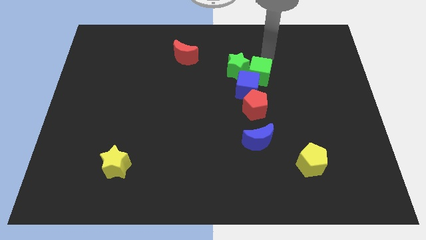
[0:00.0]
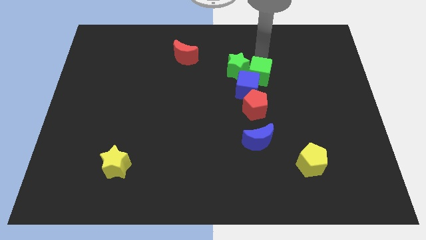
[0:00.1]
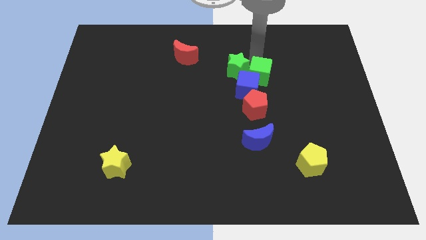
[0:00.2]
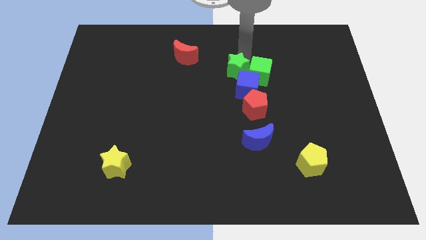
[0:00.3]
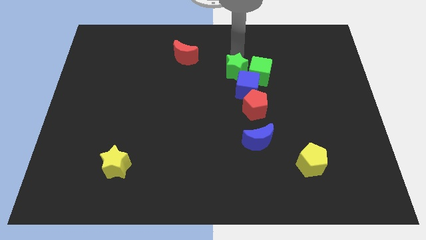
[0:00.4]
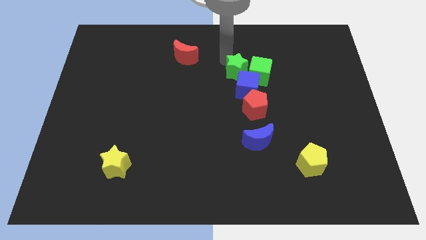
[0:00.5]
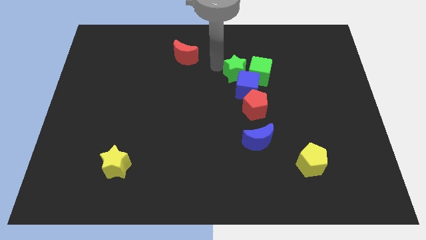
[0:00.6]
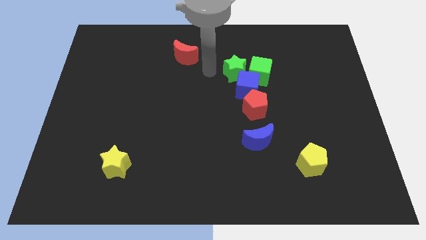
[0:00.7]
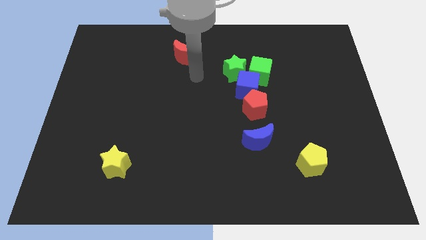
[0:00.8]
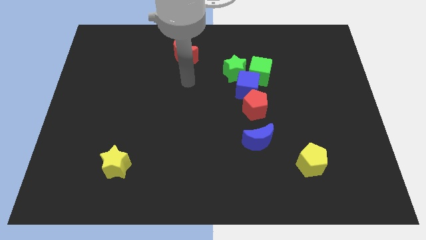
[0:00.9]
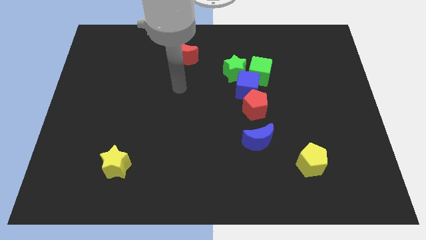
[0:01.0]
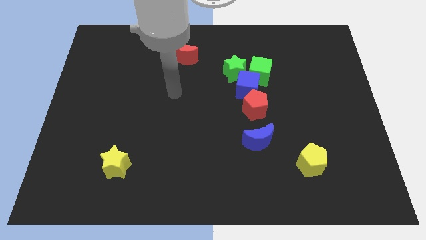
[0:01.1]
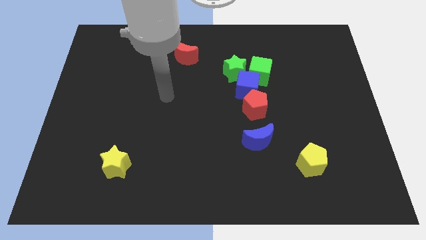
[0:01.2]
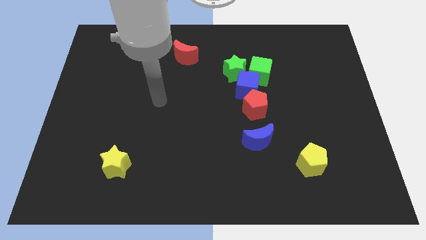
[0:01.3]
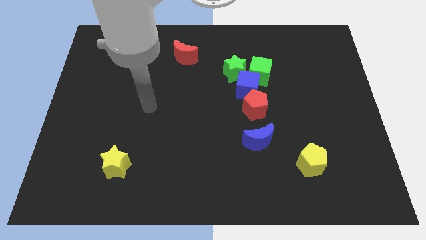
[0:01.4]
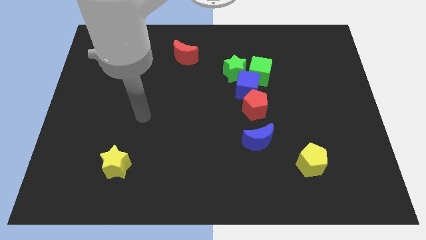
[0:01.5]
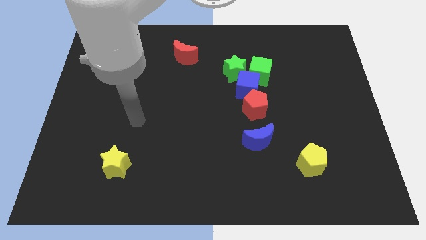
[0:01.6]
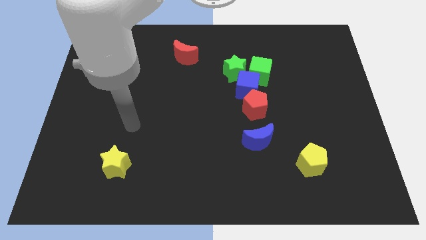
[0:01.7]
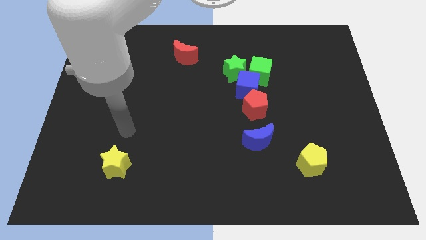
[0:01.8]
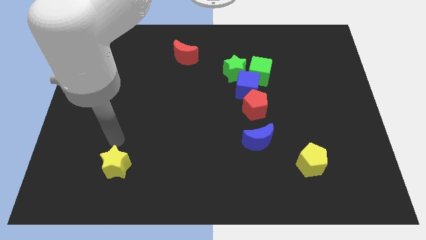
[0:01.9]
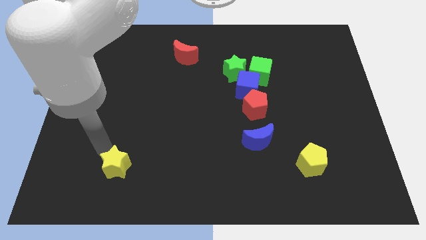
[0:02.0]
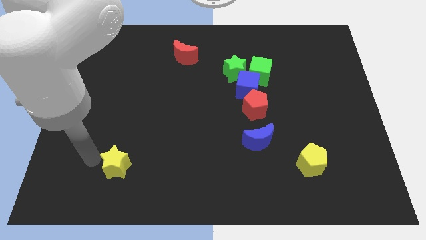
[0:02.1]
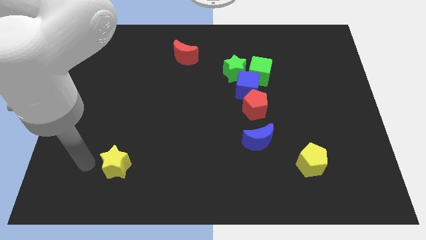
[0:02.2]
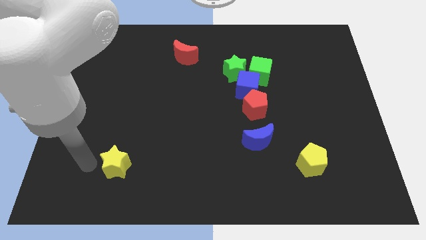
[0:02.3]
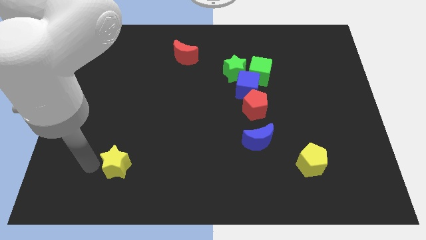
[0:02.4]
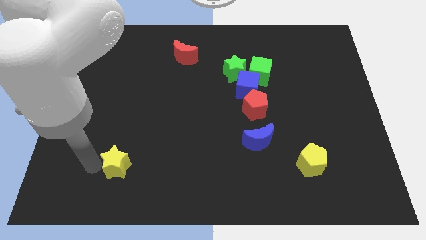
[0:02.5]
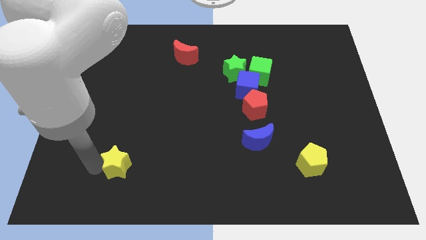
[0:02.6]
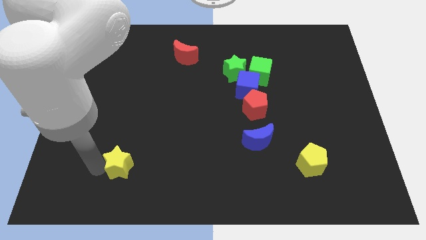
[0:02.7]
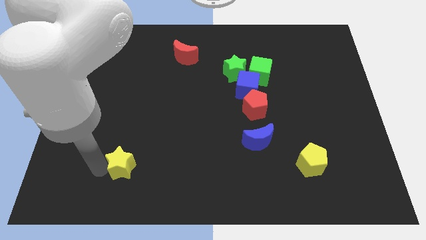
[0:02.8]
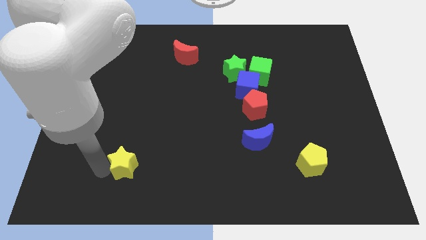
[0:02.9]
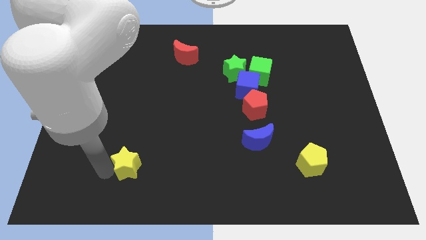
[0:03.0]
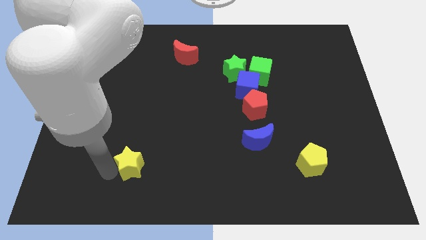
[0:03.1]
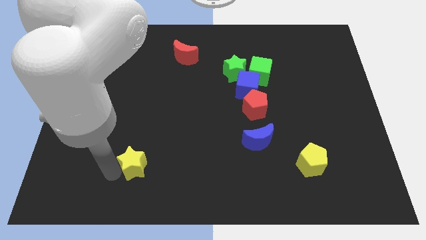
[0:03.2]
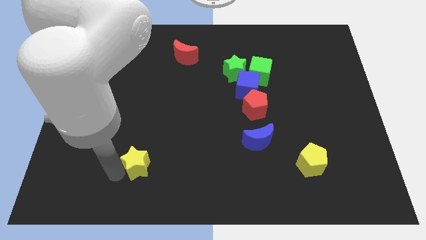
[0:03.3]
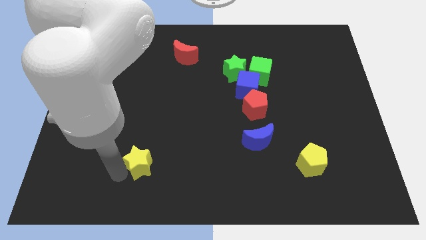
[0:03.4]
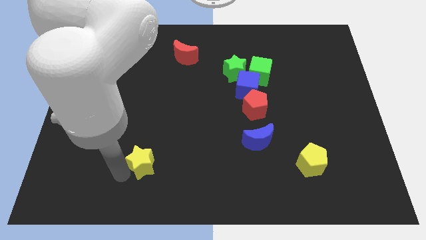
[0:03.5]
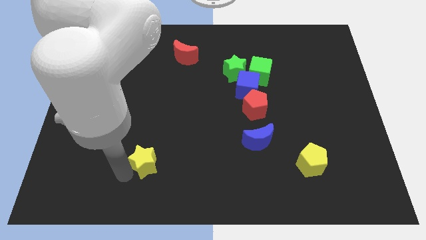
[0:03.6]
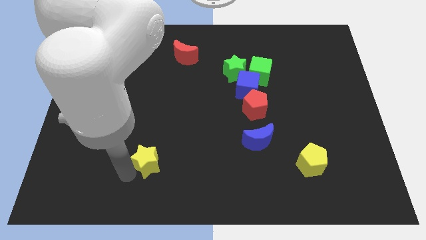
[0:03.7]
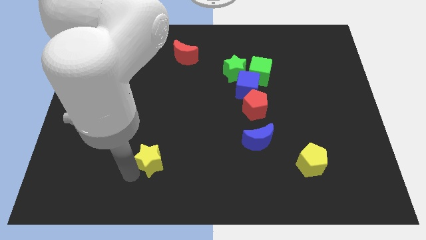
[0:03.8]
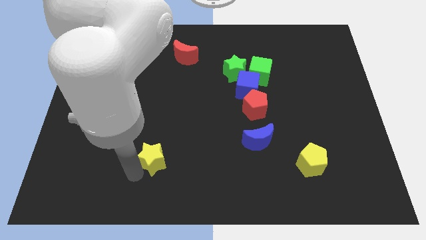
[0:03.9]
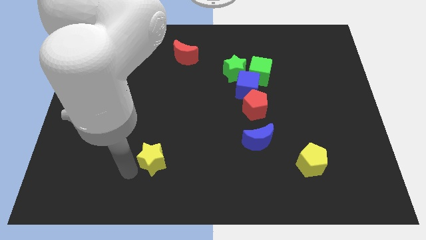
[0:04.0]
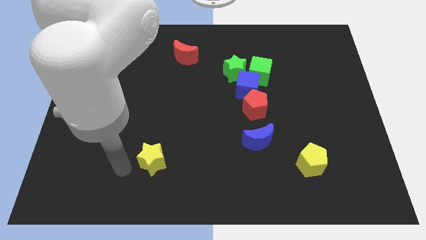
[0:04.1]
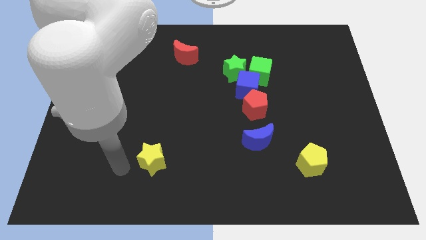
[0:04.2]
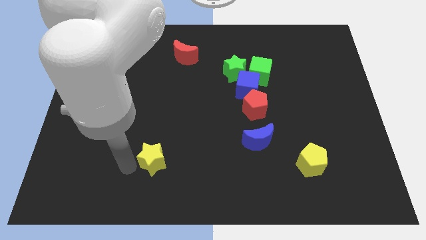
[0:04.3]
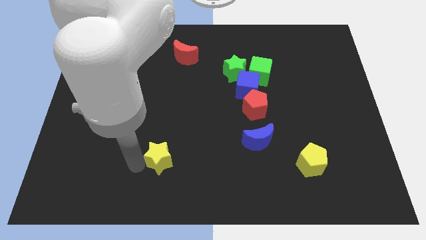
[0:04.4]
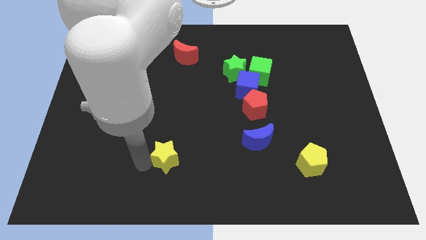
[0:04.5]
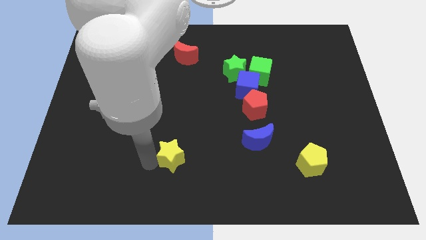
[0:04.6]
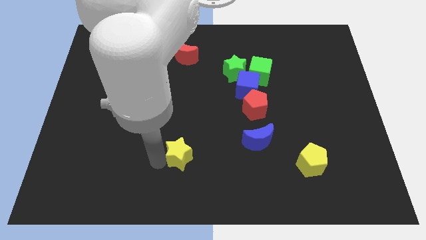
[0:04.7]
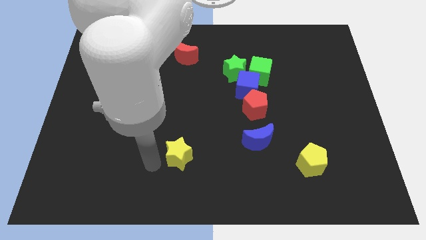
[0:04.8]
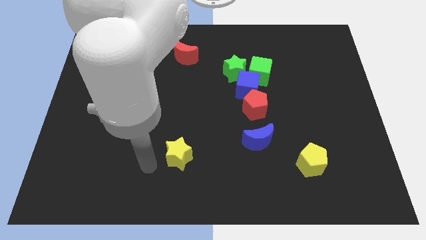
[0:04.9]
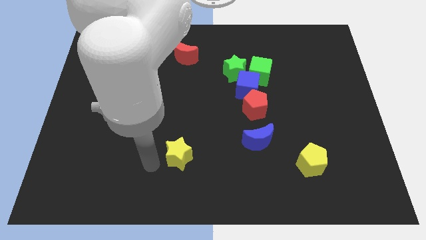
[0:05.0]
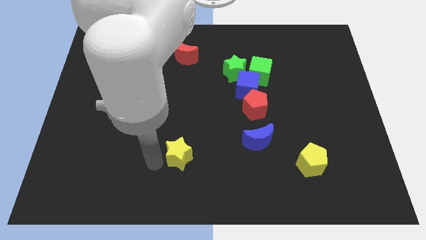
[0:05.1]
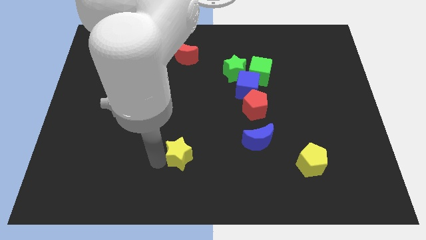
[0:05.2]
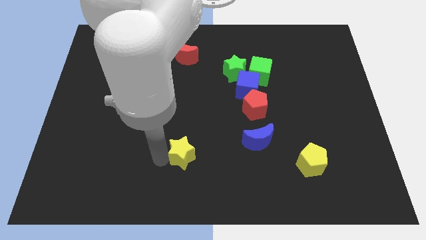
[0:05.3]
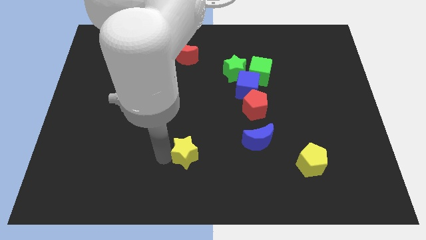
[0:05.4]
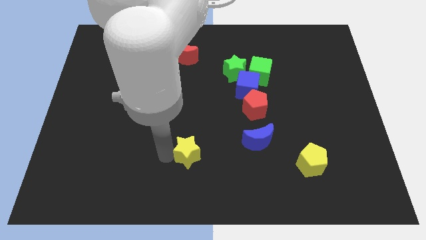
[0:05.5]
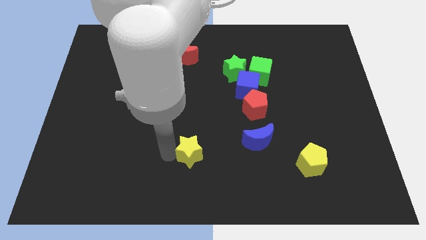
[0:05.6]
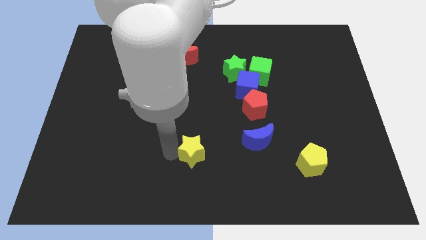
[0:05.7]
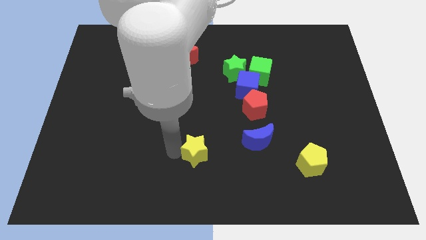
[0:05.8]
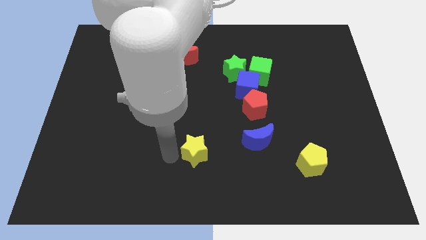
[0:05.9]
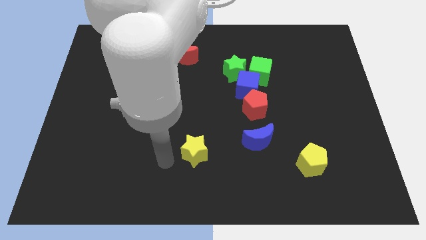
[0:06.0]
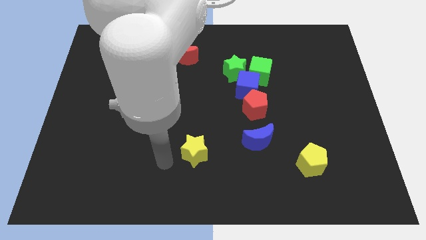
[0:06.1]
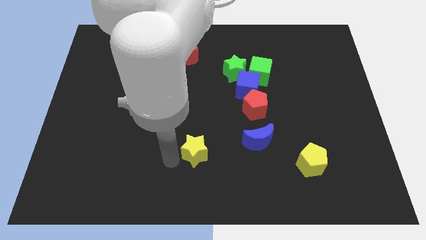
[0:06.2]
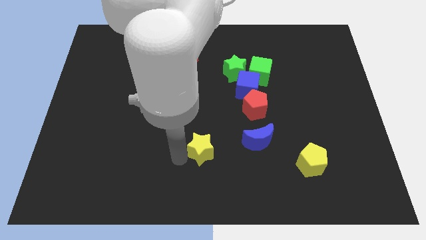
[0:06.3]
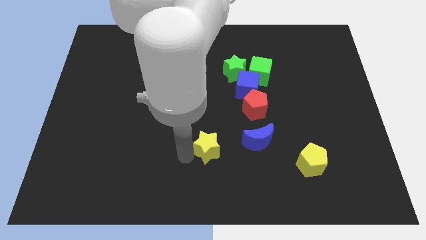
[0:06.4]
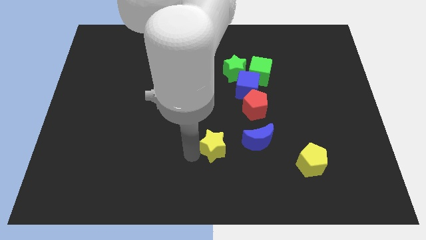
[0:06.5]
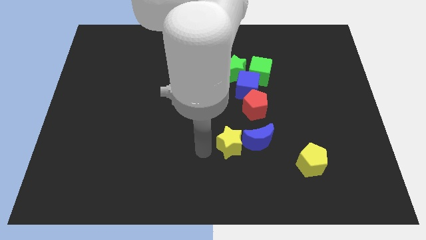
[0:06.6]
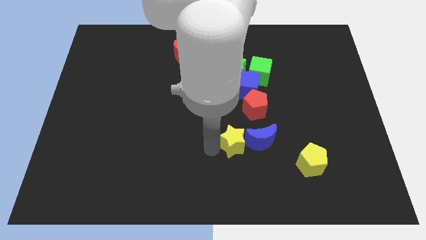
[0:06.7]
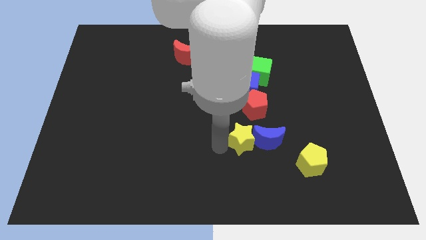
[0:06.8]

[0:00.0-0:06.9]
push the yellow star next to the blue moon
